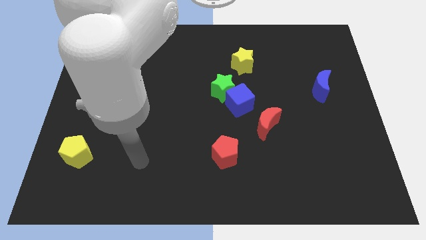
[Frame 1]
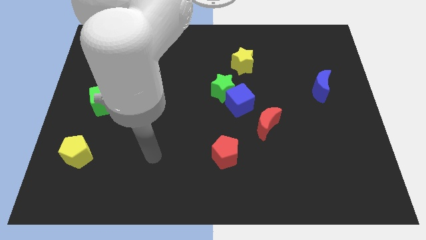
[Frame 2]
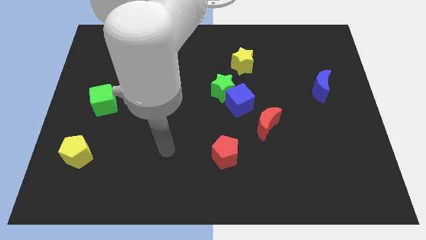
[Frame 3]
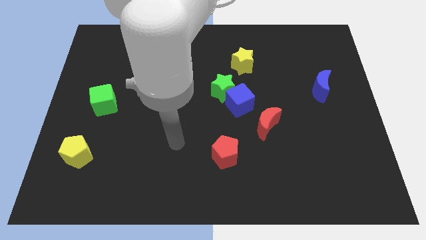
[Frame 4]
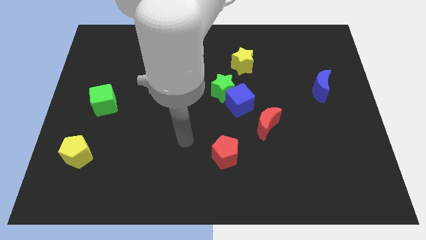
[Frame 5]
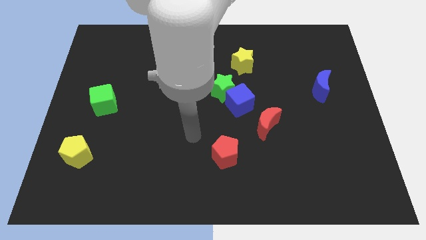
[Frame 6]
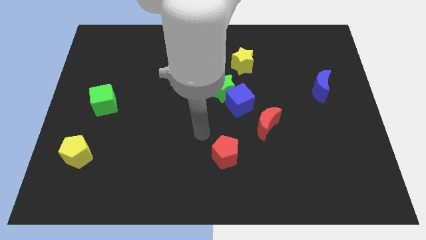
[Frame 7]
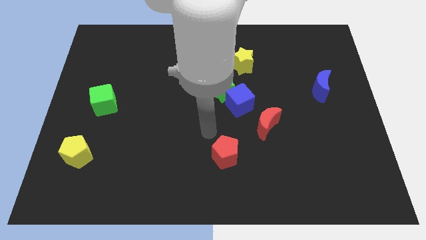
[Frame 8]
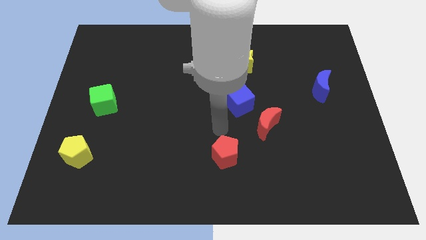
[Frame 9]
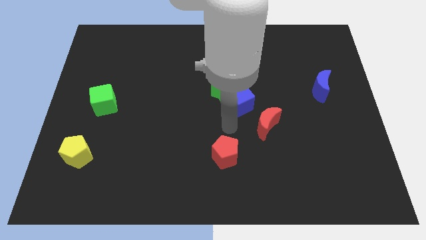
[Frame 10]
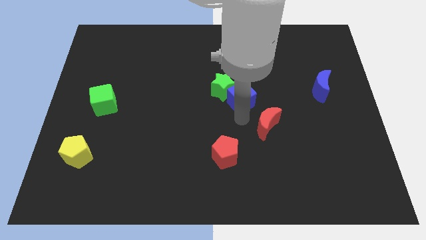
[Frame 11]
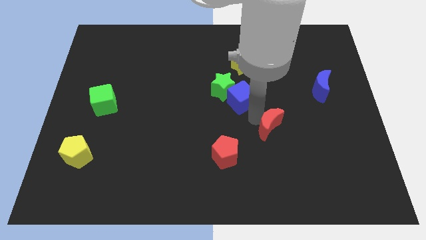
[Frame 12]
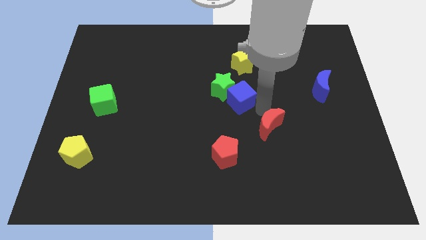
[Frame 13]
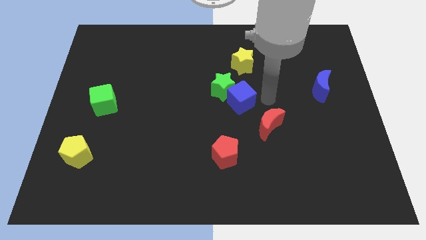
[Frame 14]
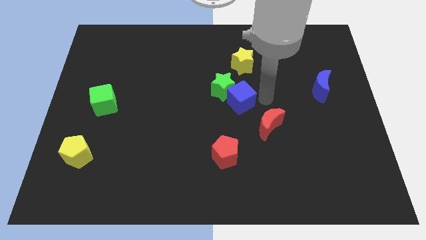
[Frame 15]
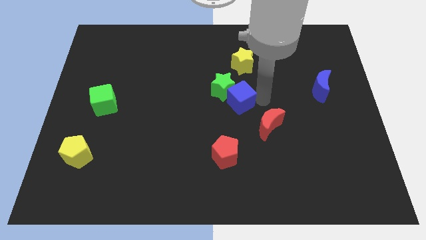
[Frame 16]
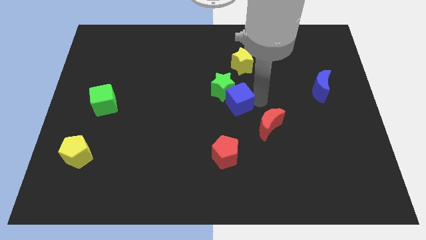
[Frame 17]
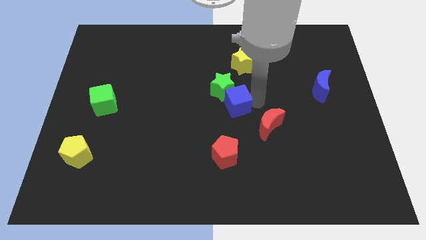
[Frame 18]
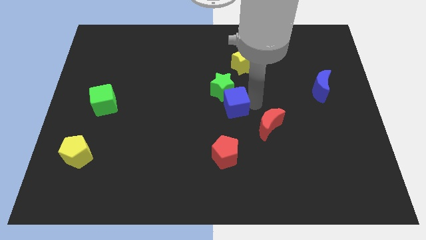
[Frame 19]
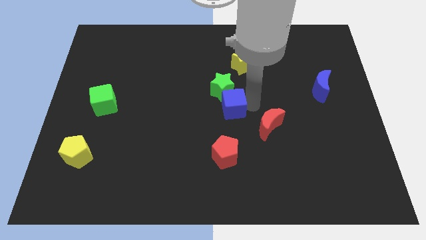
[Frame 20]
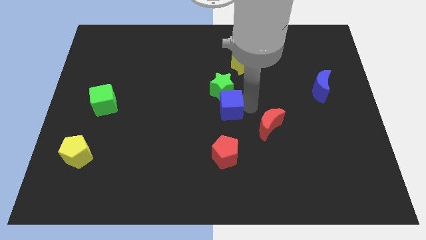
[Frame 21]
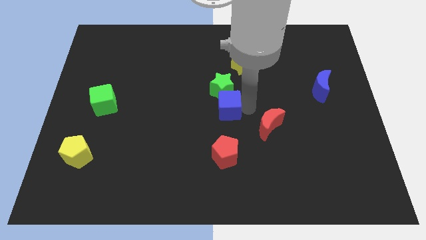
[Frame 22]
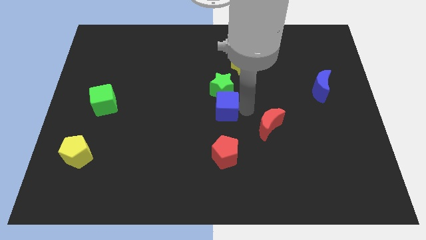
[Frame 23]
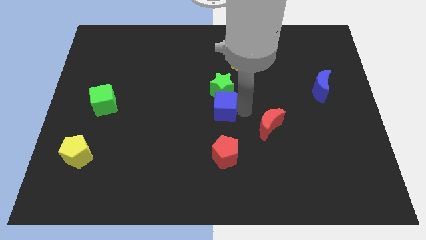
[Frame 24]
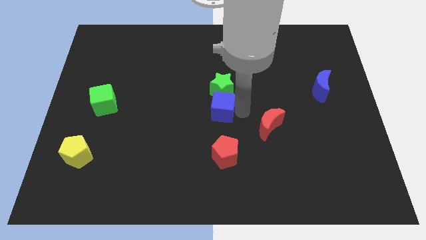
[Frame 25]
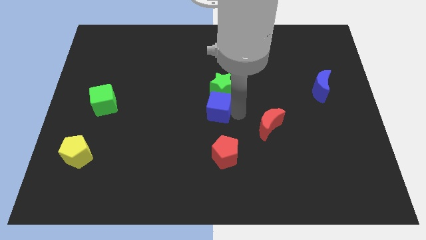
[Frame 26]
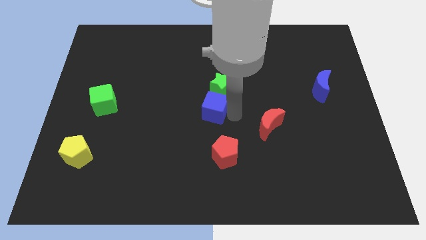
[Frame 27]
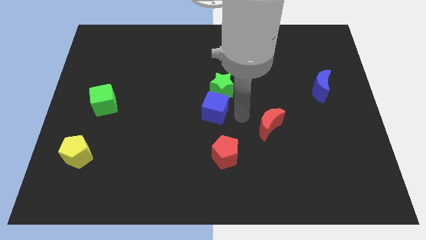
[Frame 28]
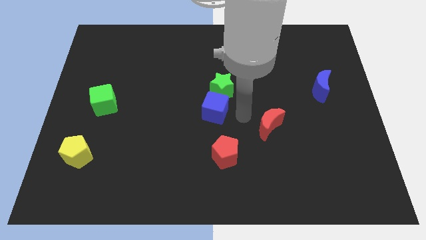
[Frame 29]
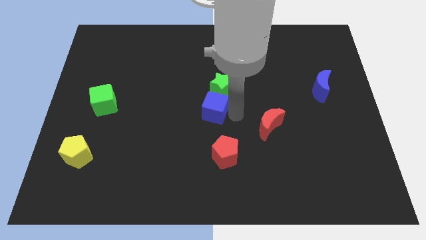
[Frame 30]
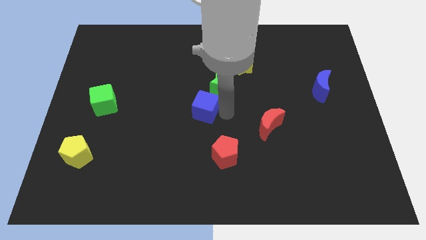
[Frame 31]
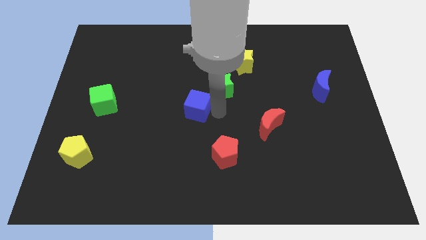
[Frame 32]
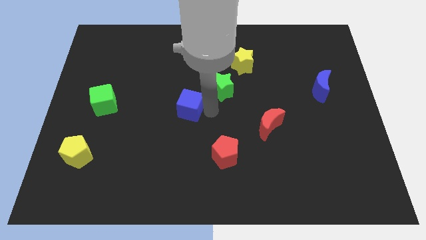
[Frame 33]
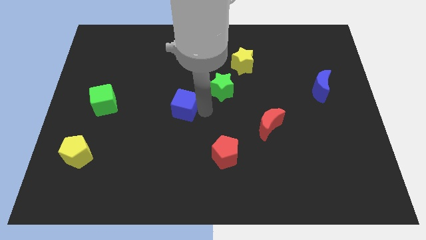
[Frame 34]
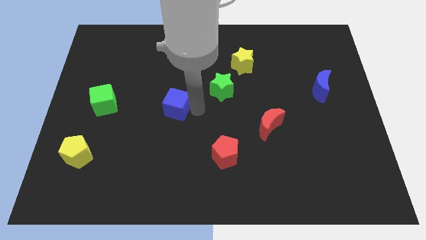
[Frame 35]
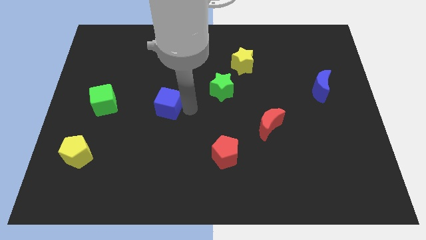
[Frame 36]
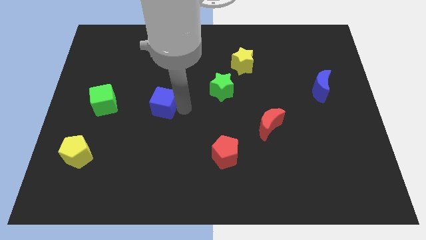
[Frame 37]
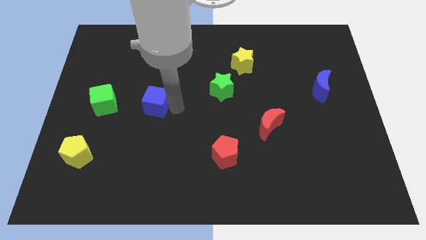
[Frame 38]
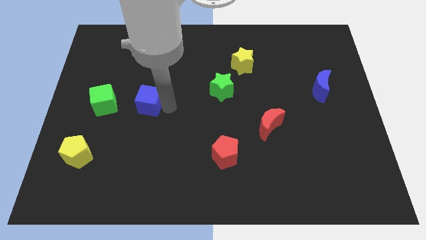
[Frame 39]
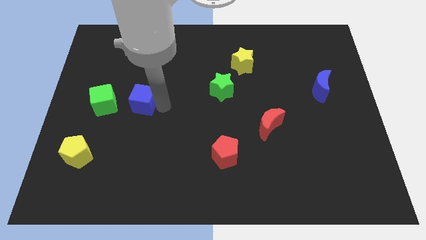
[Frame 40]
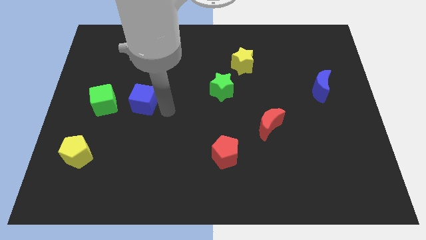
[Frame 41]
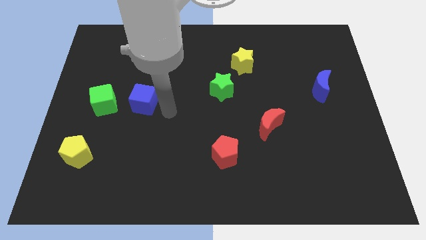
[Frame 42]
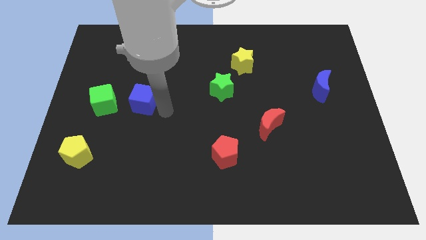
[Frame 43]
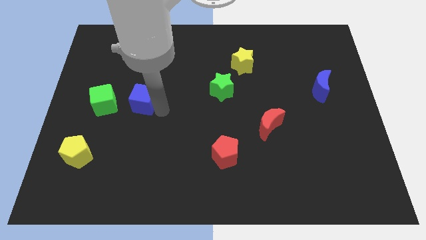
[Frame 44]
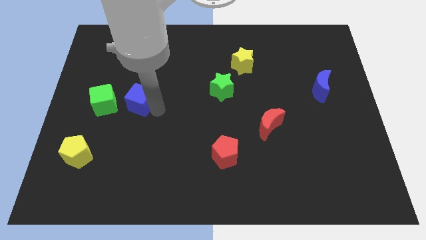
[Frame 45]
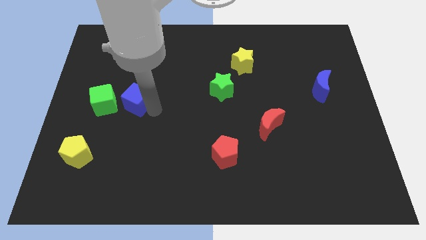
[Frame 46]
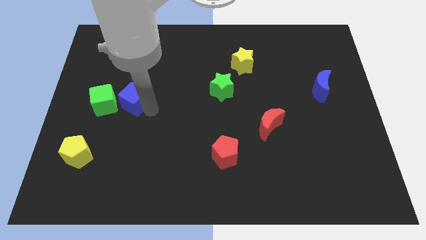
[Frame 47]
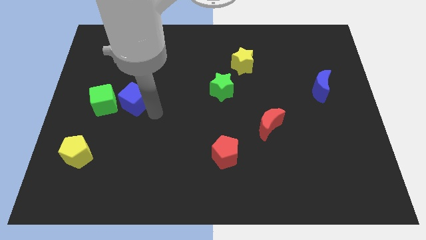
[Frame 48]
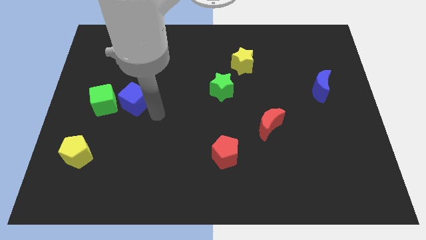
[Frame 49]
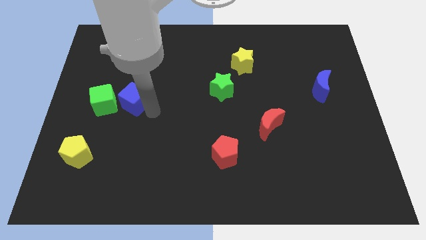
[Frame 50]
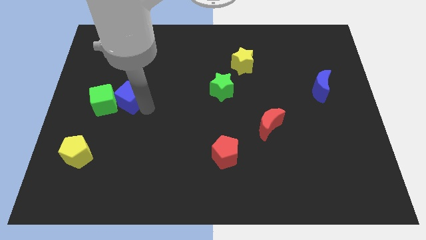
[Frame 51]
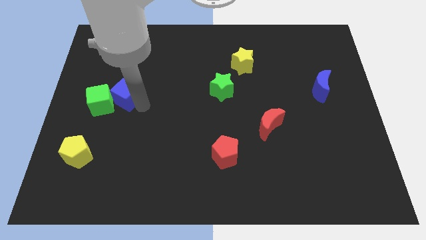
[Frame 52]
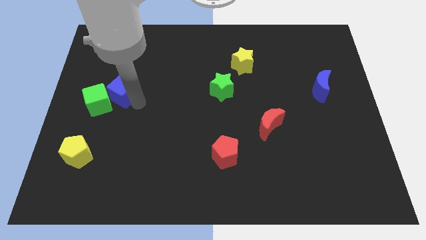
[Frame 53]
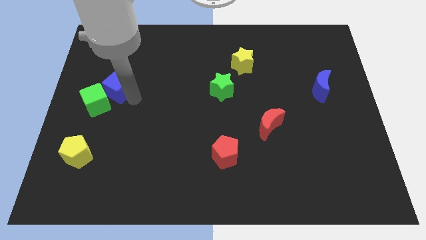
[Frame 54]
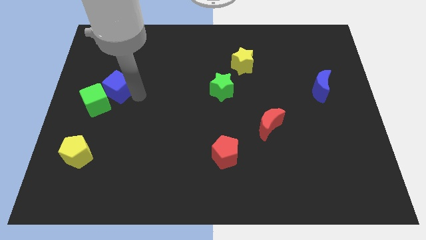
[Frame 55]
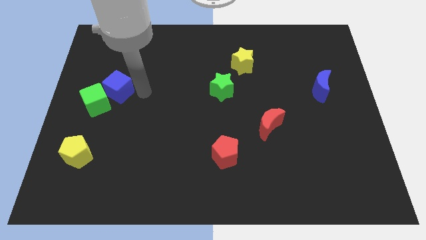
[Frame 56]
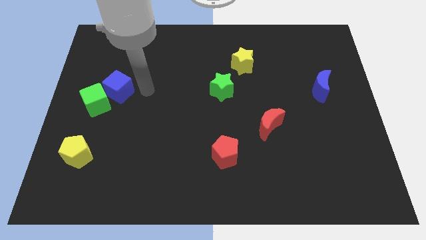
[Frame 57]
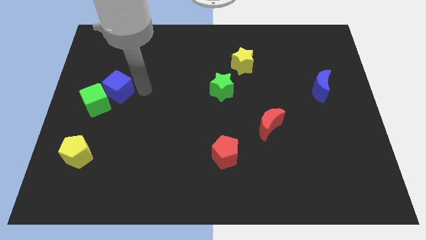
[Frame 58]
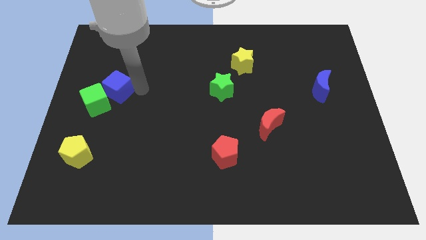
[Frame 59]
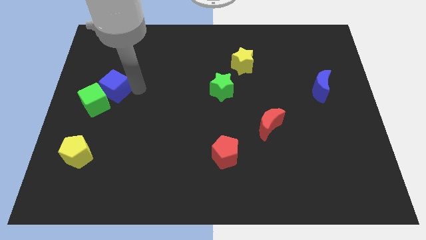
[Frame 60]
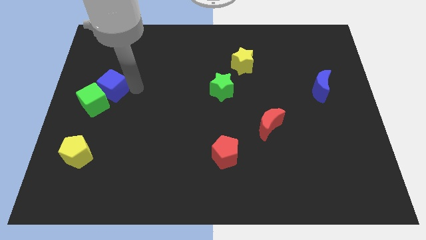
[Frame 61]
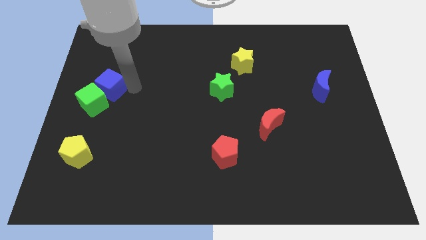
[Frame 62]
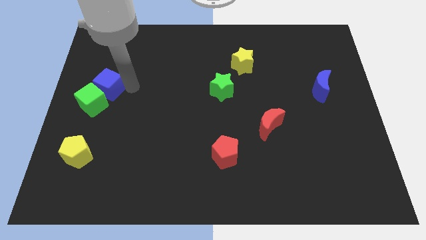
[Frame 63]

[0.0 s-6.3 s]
put the blue cube to the center left

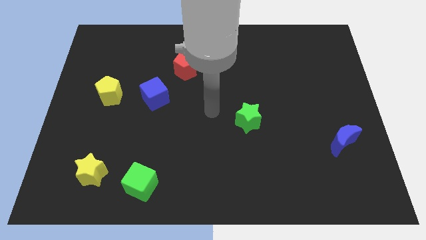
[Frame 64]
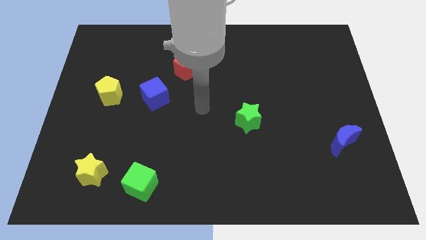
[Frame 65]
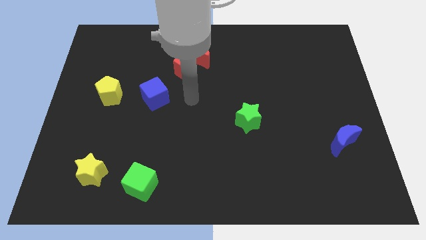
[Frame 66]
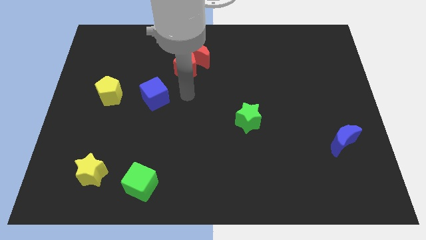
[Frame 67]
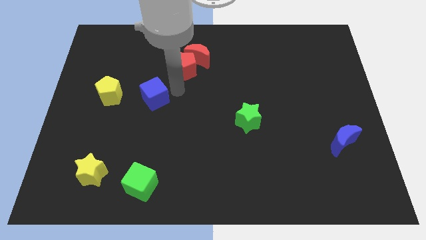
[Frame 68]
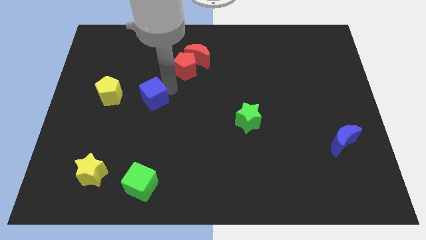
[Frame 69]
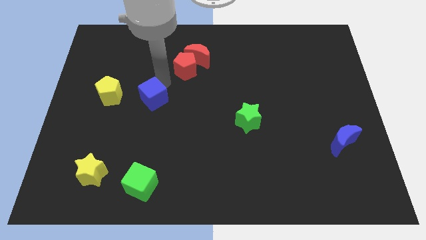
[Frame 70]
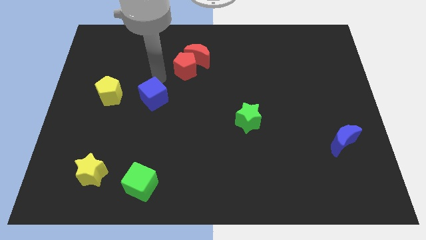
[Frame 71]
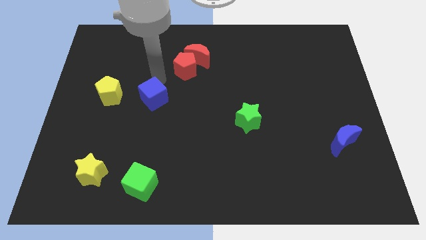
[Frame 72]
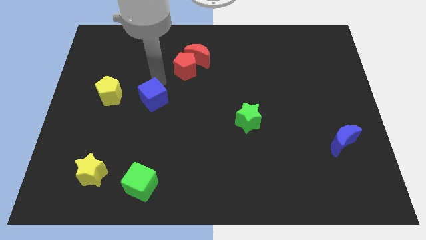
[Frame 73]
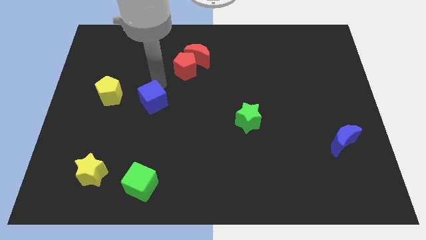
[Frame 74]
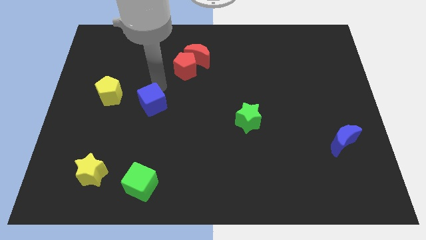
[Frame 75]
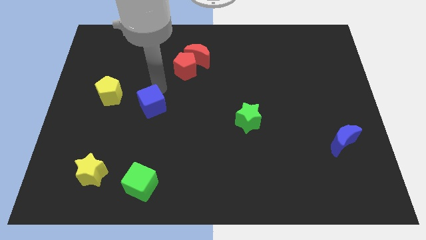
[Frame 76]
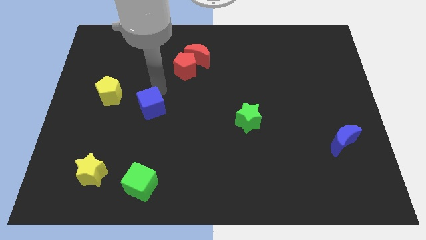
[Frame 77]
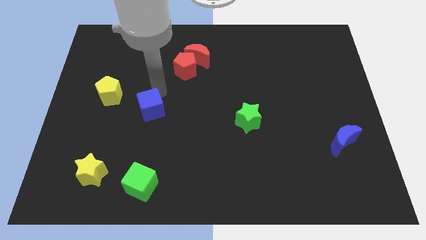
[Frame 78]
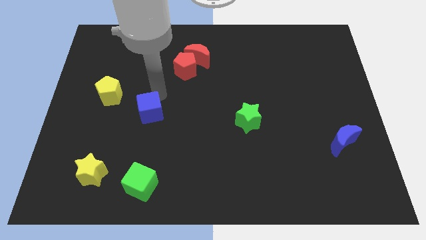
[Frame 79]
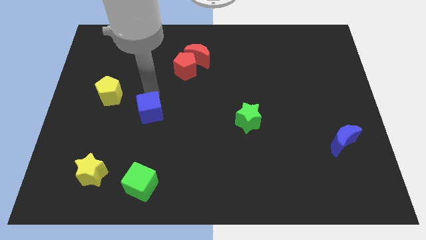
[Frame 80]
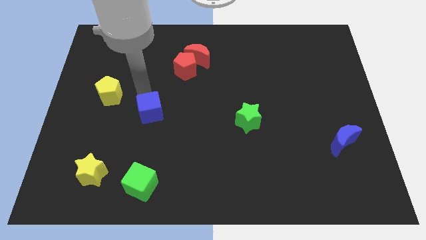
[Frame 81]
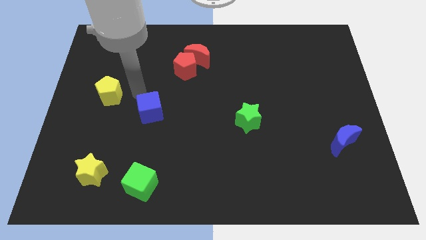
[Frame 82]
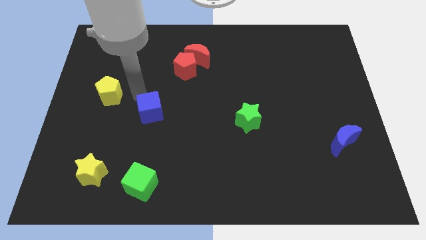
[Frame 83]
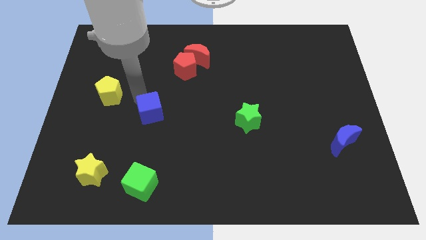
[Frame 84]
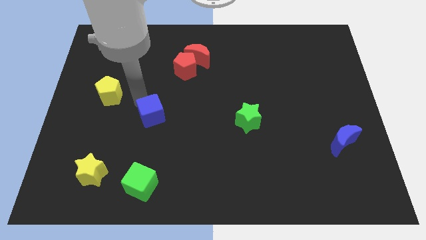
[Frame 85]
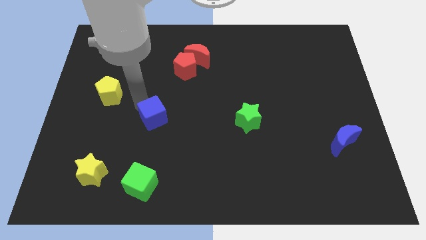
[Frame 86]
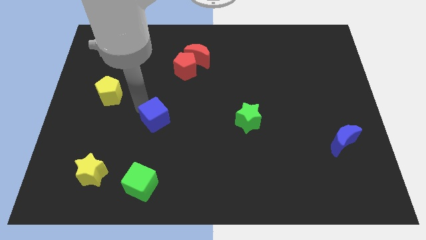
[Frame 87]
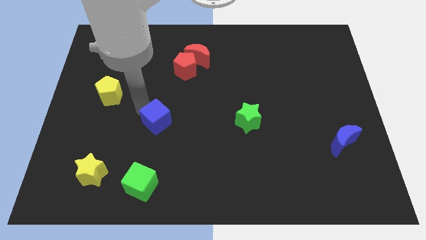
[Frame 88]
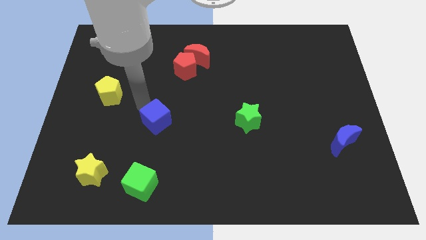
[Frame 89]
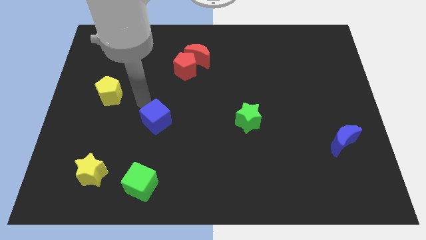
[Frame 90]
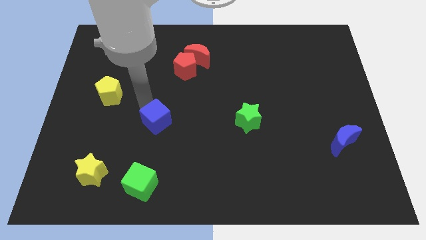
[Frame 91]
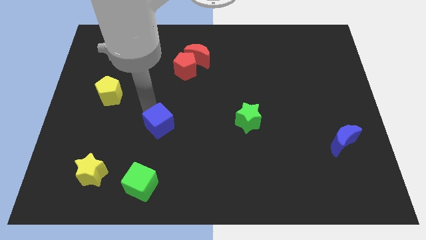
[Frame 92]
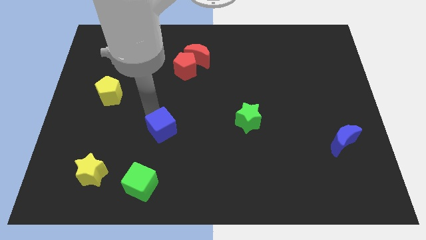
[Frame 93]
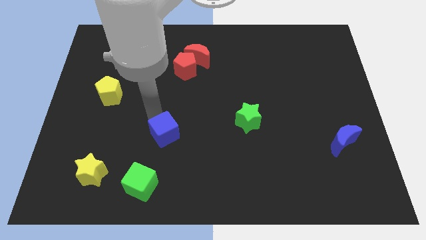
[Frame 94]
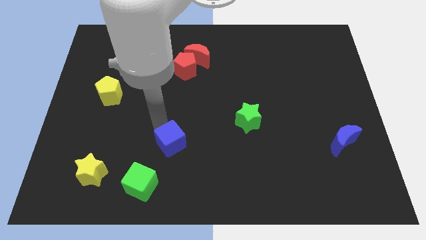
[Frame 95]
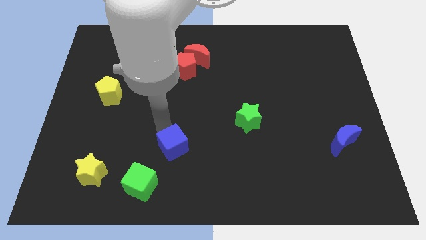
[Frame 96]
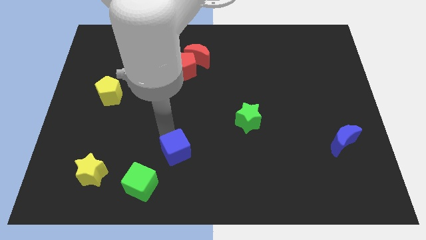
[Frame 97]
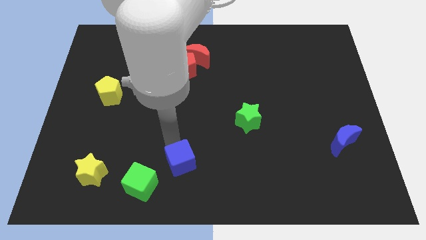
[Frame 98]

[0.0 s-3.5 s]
push the blue cube to the bottom side
